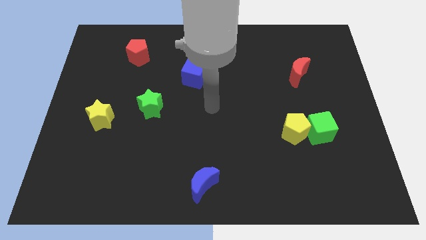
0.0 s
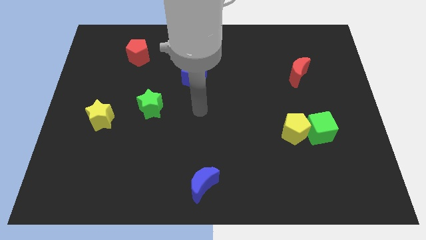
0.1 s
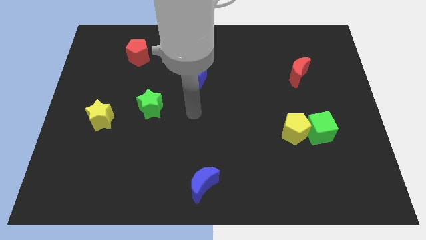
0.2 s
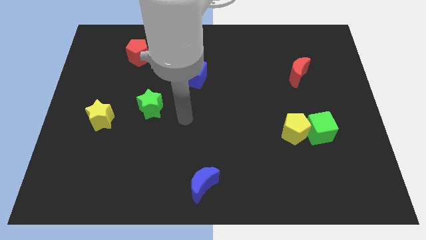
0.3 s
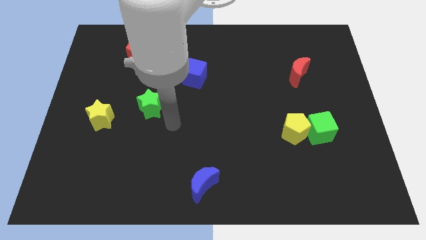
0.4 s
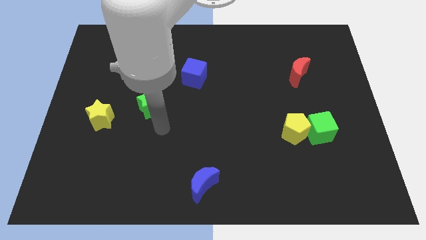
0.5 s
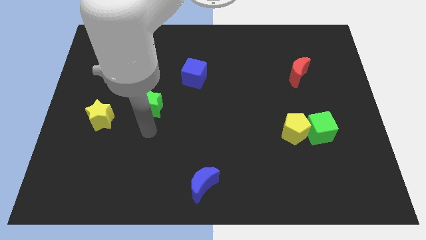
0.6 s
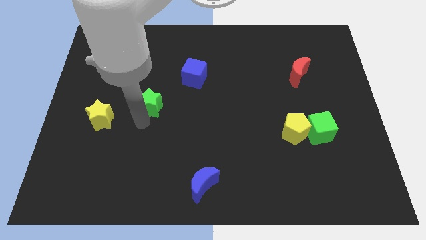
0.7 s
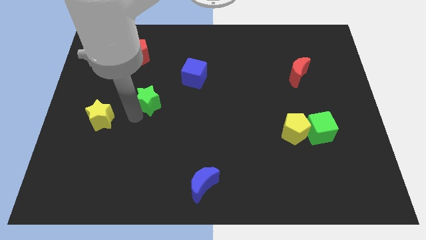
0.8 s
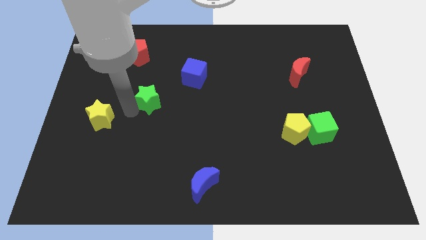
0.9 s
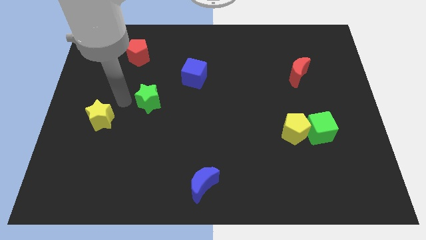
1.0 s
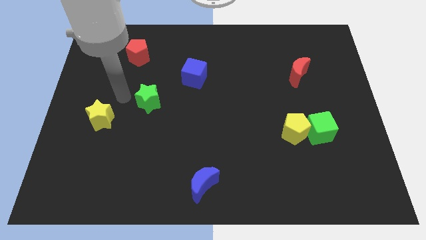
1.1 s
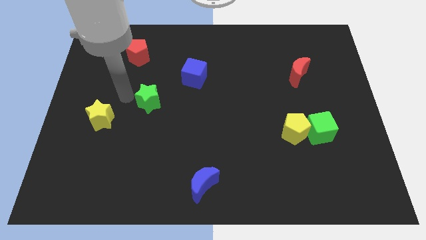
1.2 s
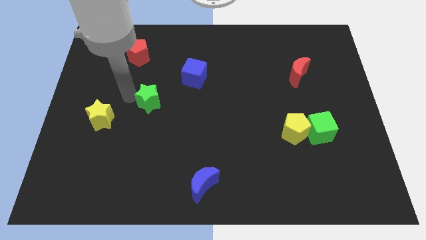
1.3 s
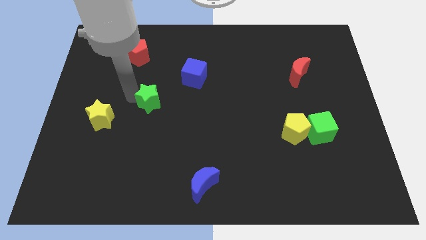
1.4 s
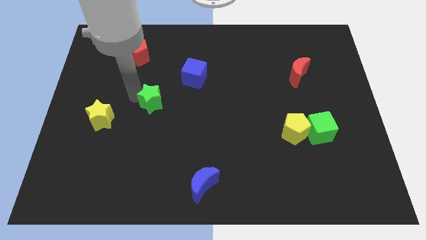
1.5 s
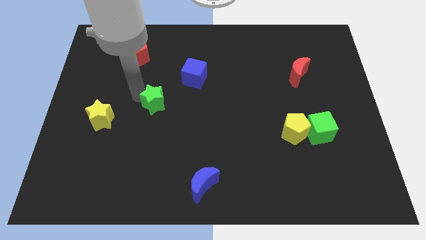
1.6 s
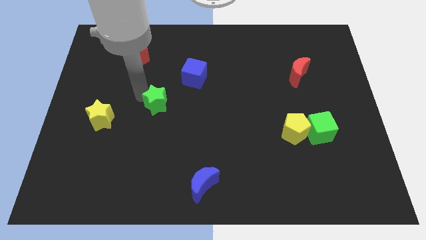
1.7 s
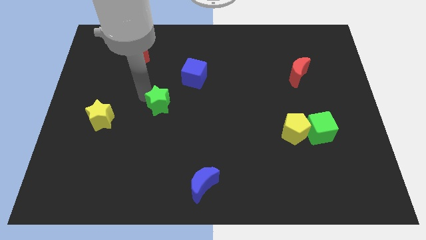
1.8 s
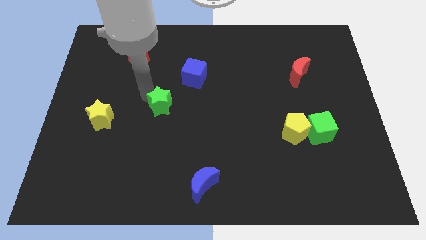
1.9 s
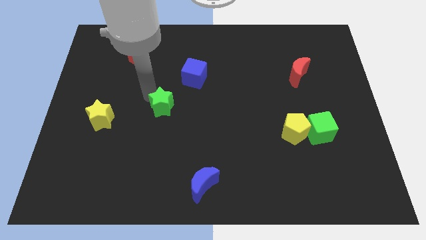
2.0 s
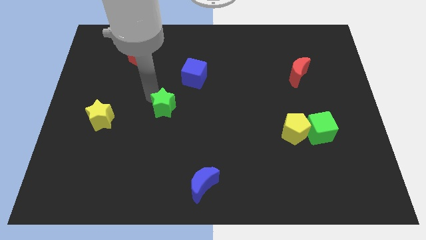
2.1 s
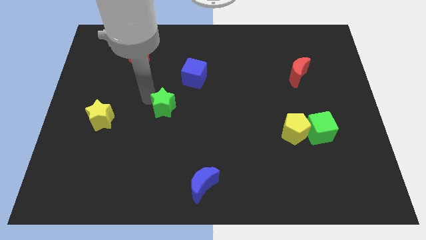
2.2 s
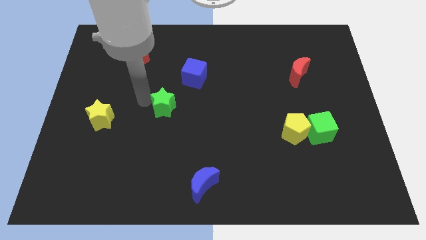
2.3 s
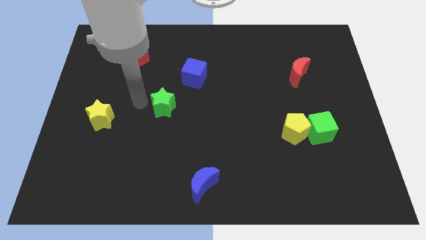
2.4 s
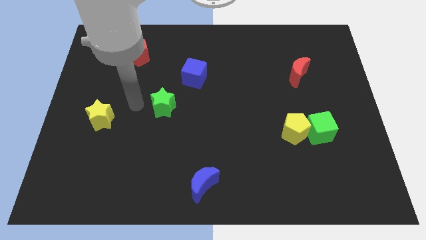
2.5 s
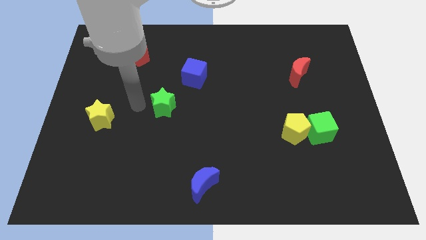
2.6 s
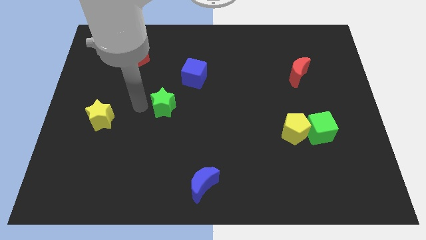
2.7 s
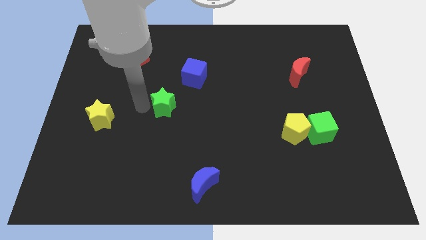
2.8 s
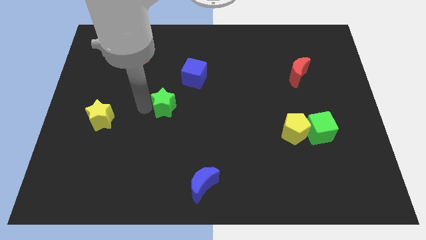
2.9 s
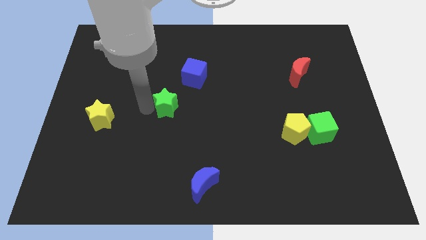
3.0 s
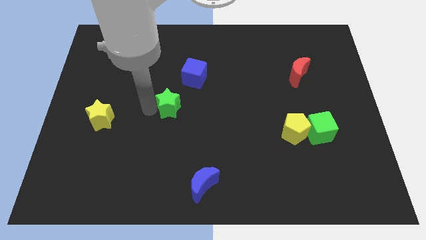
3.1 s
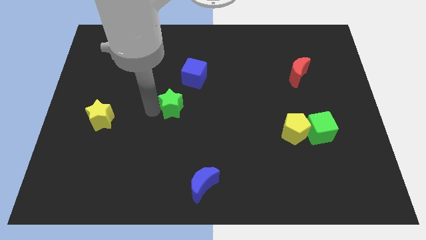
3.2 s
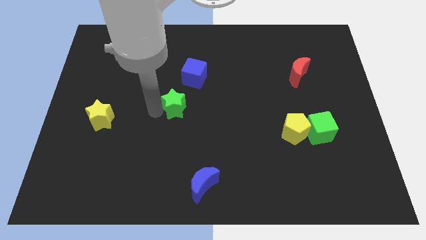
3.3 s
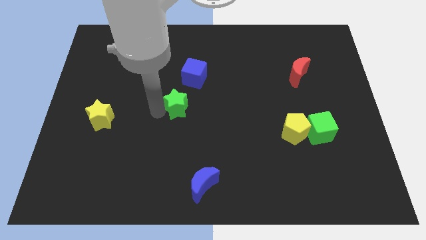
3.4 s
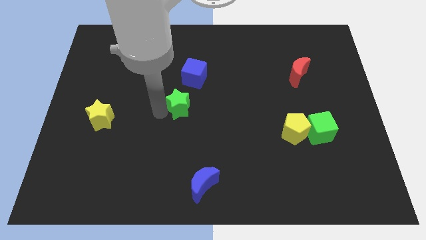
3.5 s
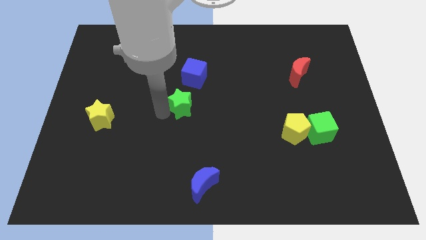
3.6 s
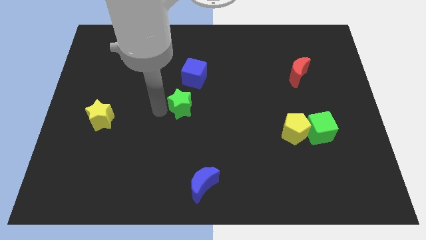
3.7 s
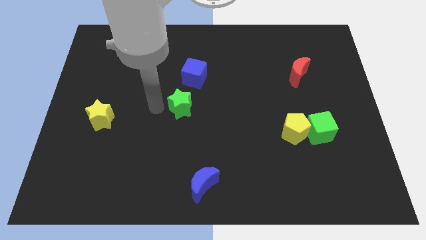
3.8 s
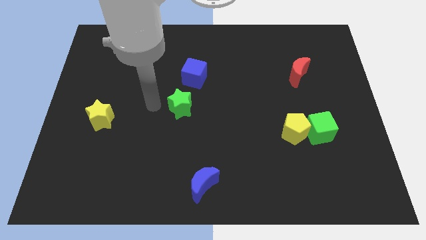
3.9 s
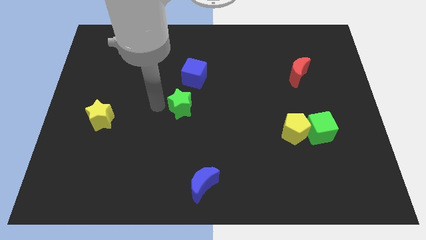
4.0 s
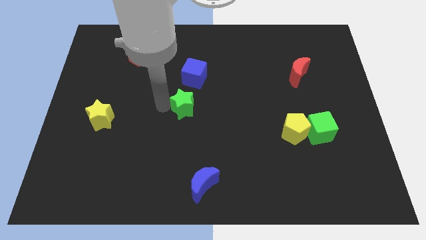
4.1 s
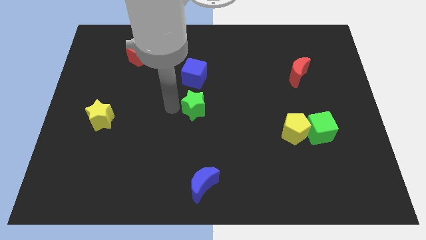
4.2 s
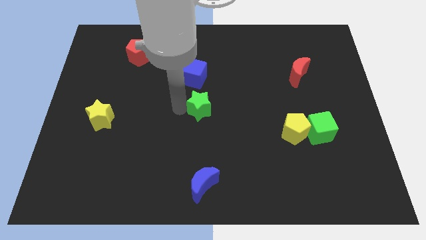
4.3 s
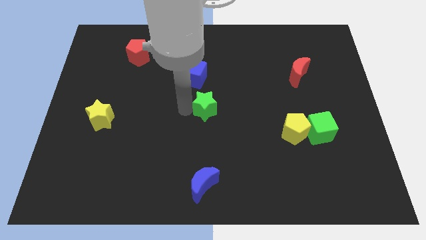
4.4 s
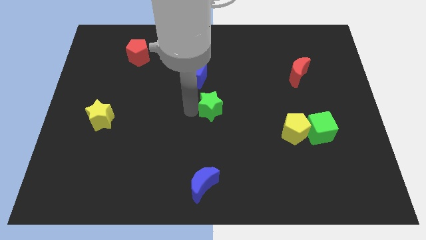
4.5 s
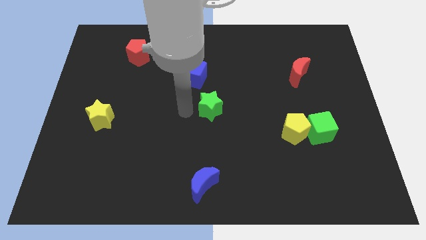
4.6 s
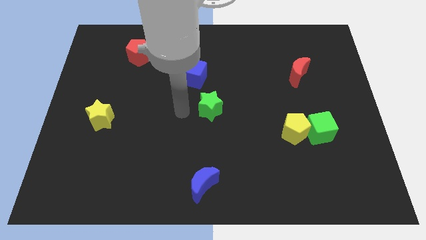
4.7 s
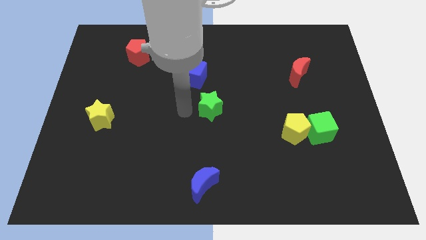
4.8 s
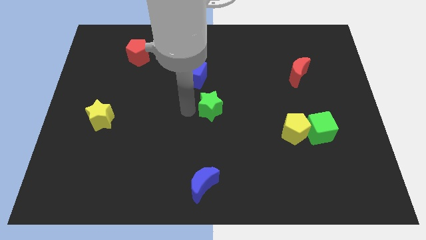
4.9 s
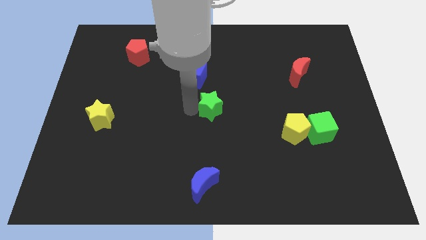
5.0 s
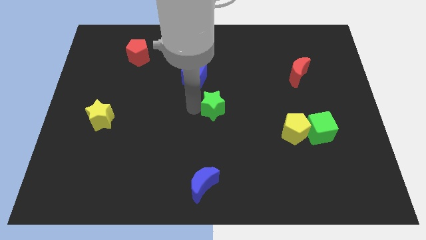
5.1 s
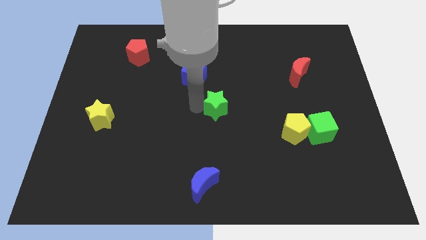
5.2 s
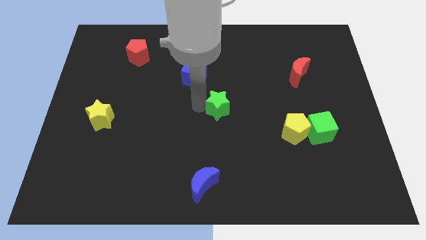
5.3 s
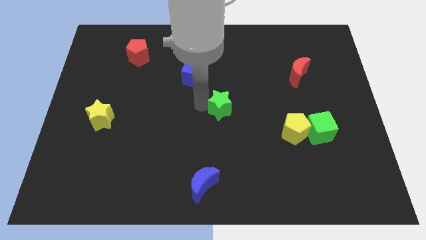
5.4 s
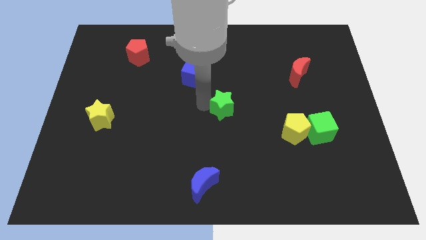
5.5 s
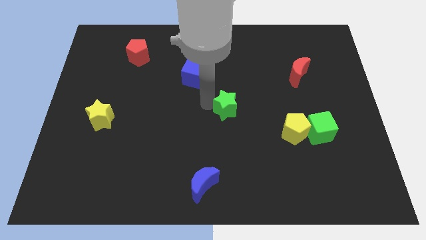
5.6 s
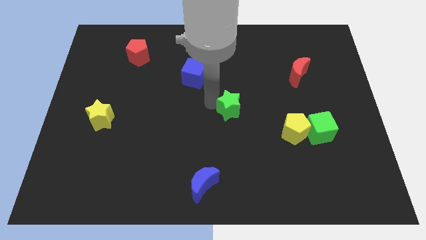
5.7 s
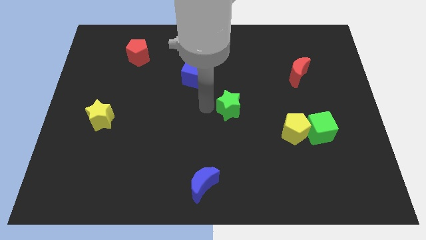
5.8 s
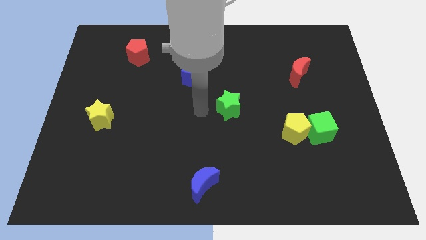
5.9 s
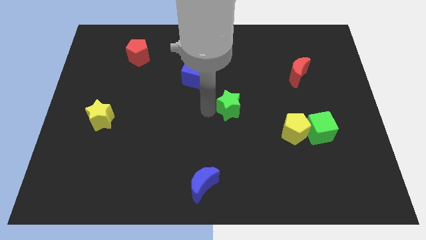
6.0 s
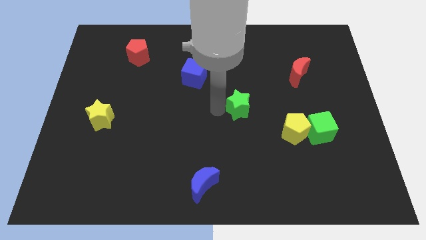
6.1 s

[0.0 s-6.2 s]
slide the green star right

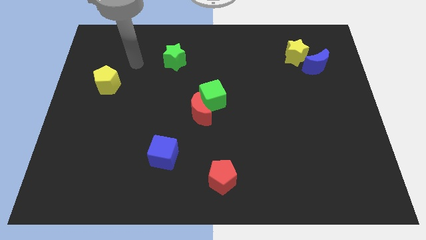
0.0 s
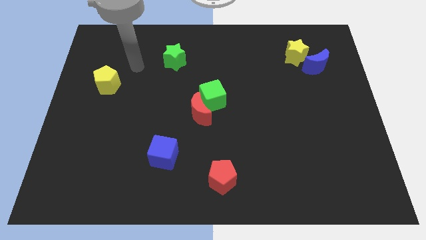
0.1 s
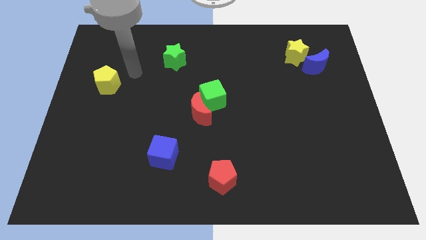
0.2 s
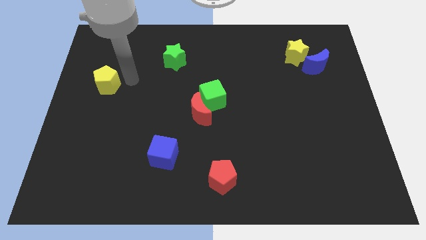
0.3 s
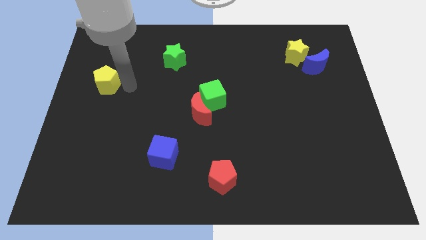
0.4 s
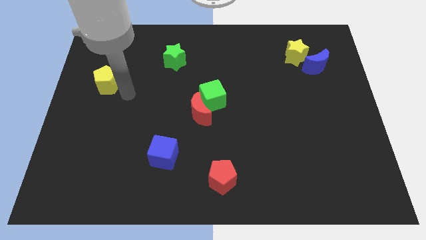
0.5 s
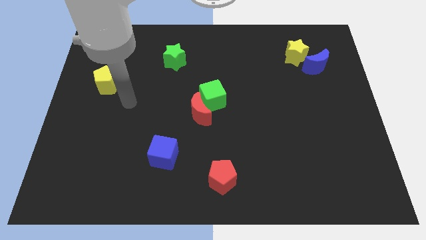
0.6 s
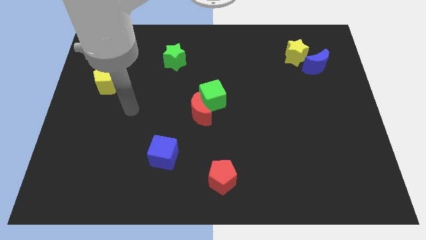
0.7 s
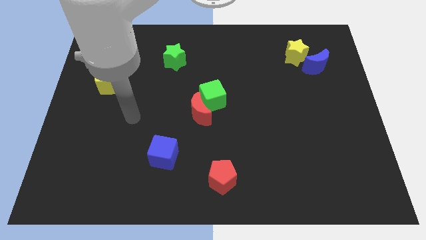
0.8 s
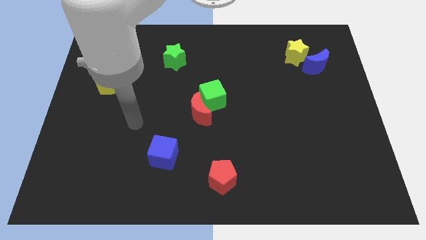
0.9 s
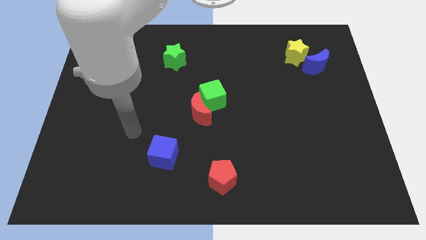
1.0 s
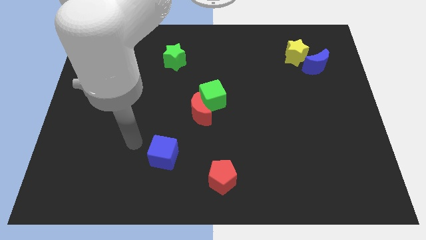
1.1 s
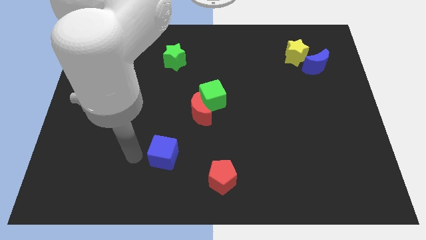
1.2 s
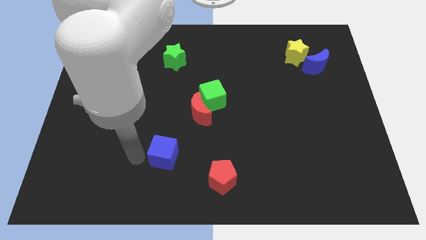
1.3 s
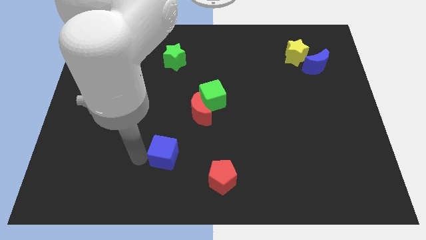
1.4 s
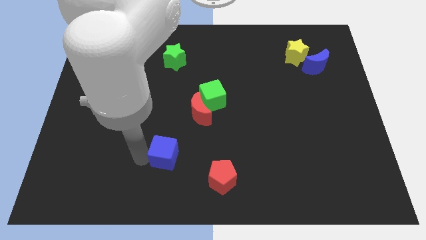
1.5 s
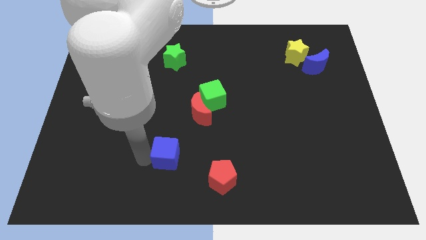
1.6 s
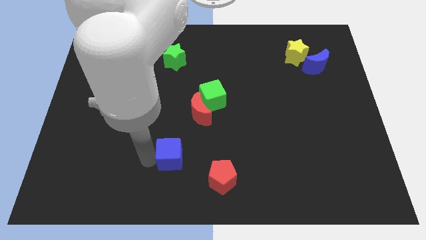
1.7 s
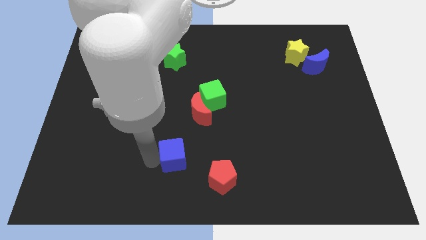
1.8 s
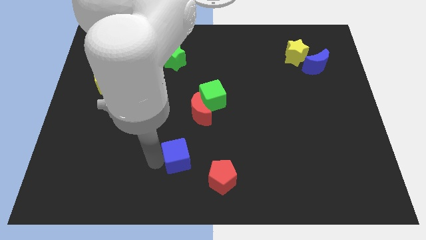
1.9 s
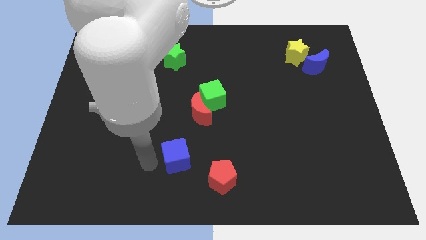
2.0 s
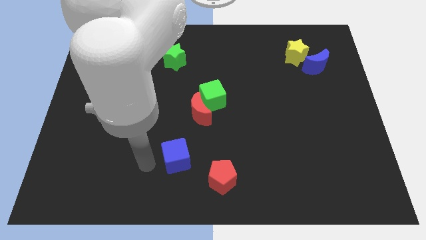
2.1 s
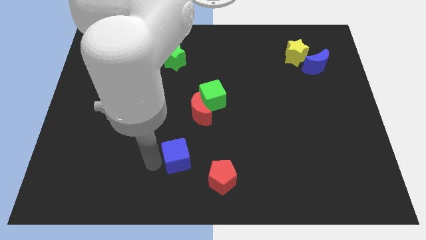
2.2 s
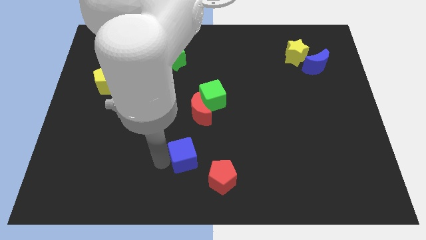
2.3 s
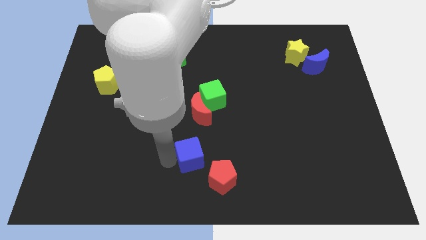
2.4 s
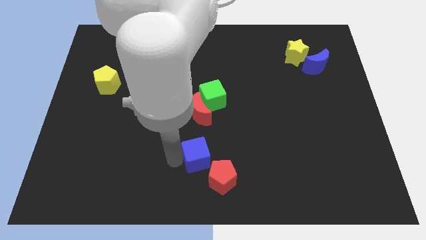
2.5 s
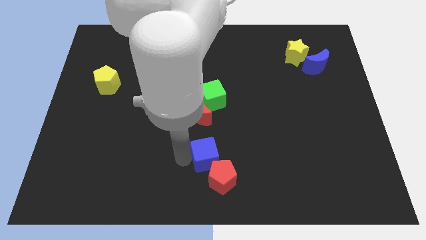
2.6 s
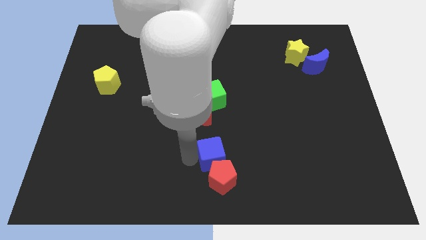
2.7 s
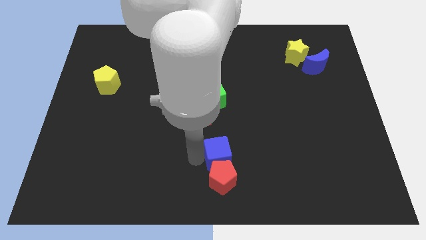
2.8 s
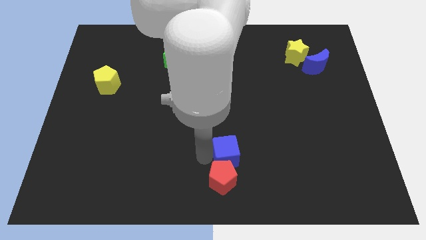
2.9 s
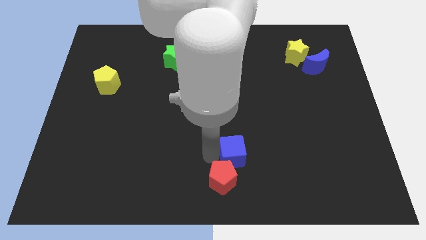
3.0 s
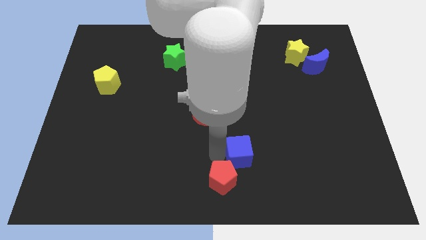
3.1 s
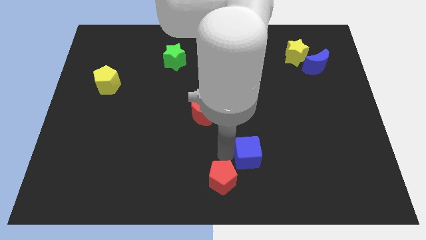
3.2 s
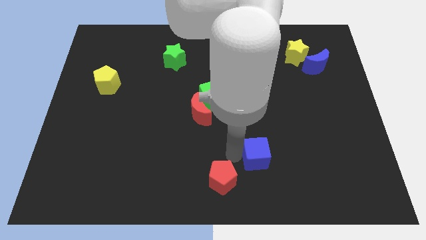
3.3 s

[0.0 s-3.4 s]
push the blue cube to the right
